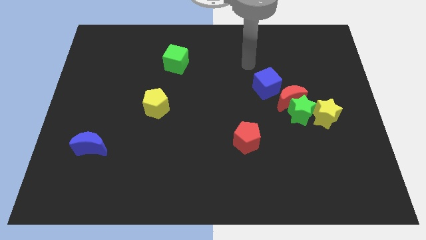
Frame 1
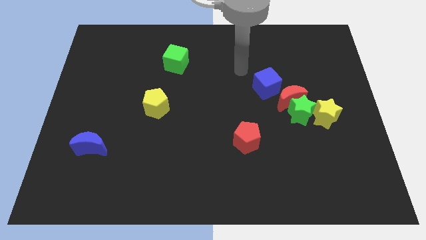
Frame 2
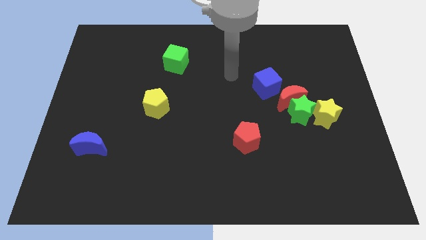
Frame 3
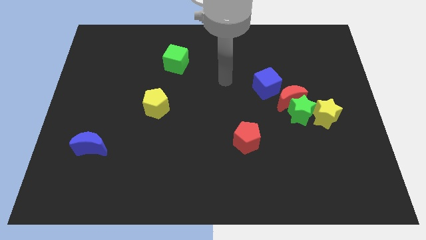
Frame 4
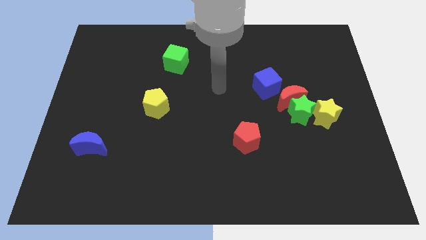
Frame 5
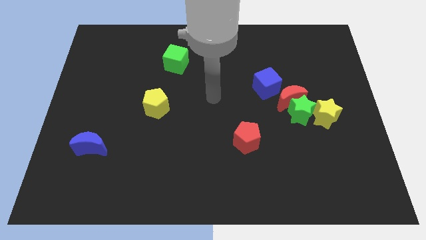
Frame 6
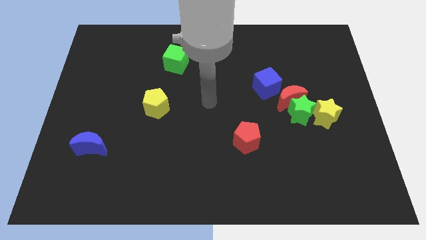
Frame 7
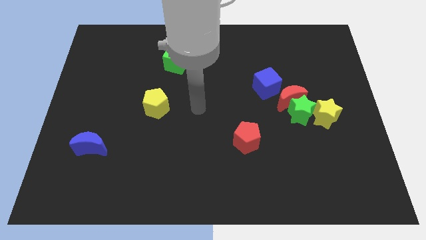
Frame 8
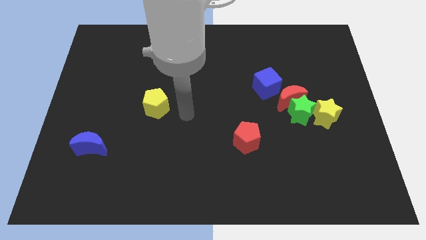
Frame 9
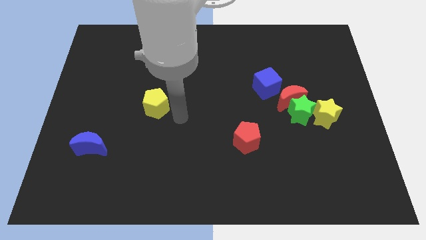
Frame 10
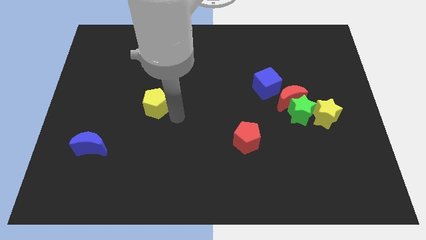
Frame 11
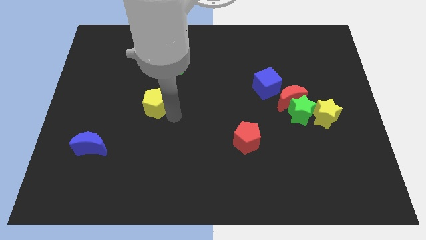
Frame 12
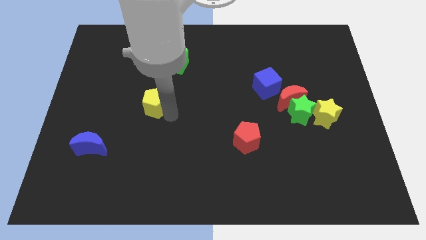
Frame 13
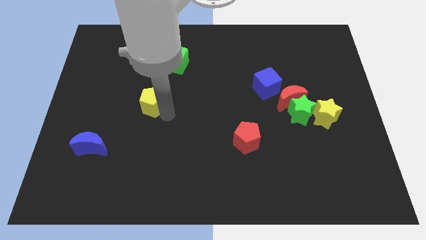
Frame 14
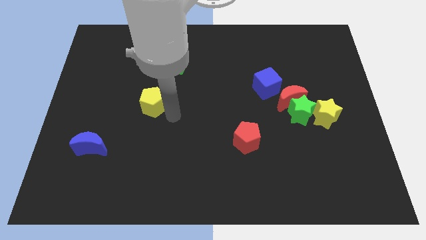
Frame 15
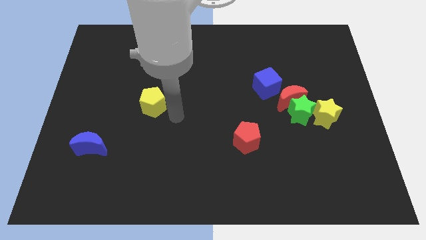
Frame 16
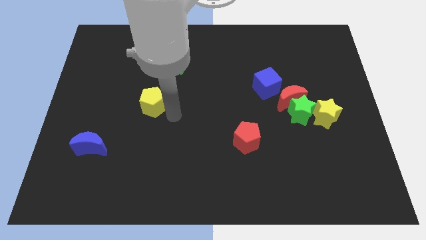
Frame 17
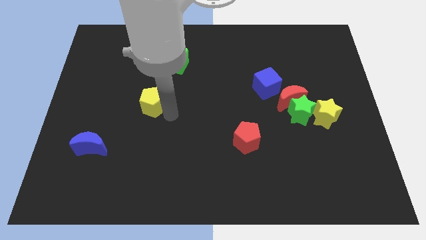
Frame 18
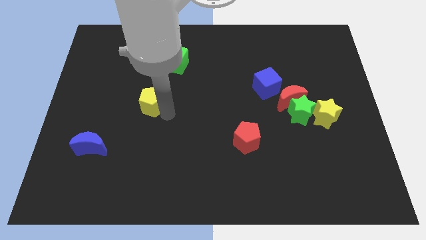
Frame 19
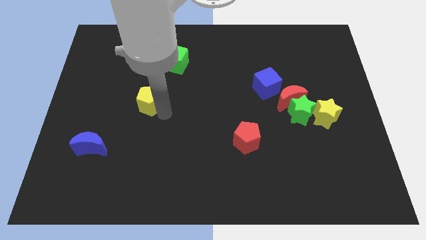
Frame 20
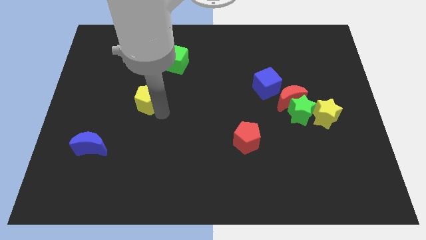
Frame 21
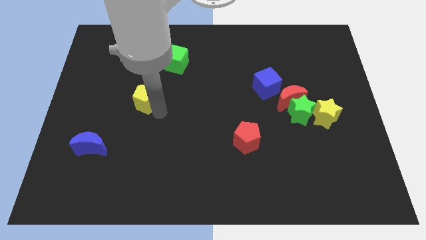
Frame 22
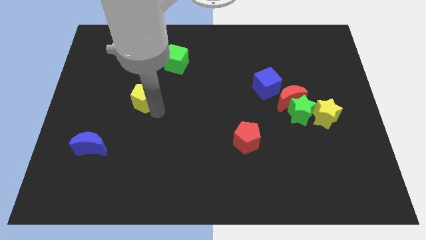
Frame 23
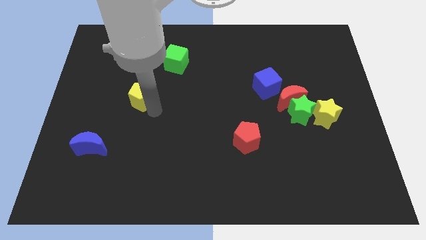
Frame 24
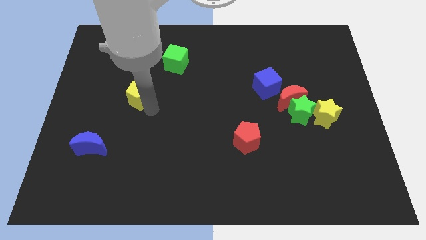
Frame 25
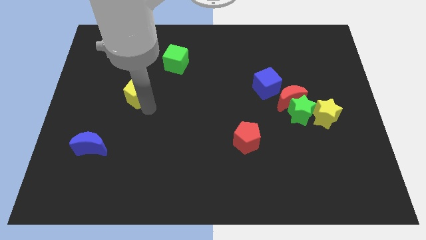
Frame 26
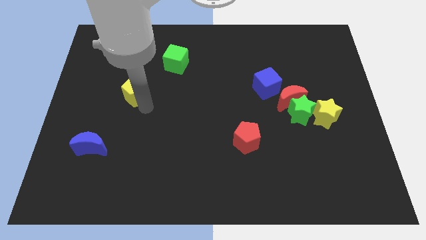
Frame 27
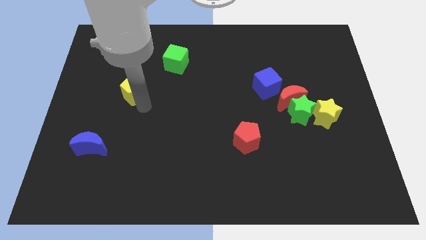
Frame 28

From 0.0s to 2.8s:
push the yellow pentagon up and then to the left a little

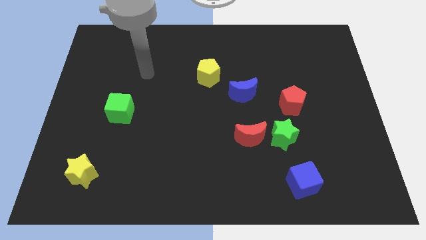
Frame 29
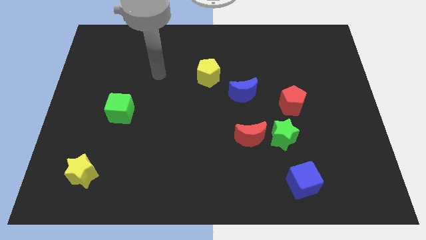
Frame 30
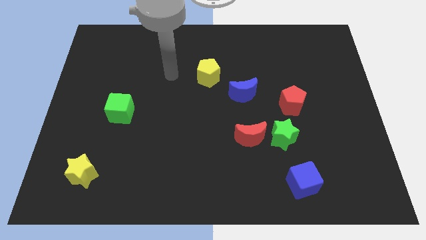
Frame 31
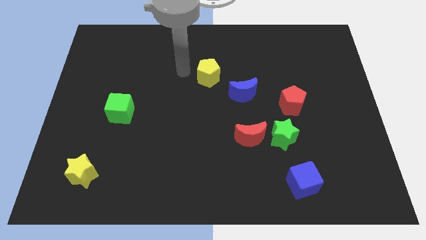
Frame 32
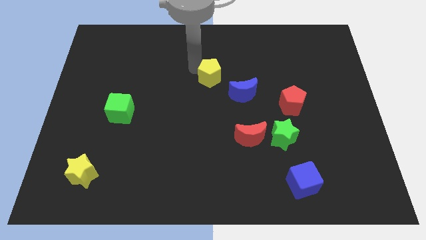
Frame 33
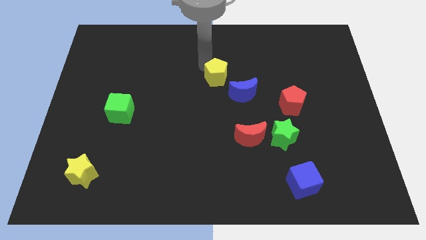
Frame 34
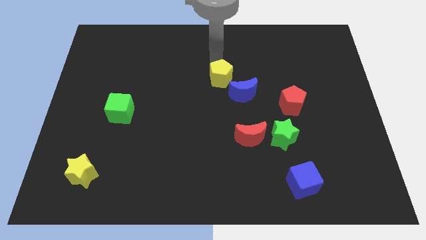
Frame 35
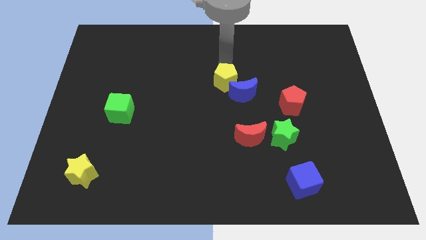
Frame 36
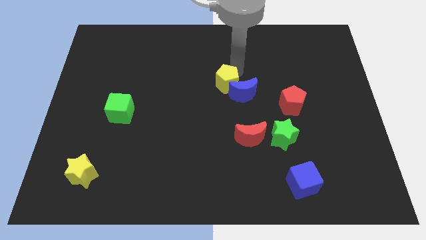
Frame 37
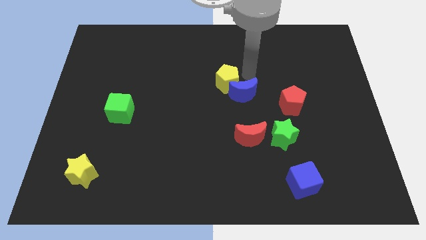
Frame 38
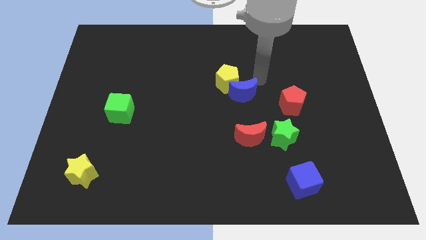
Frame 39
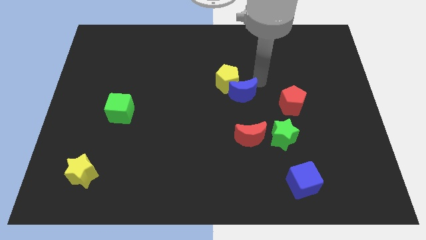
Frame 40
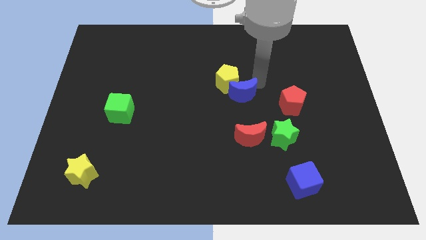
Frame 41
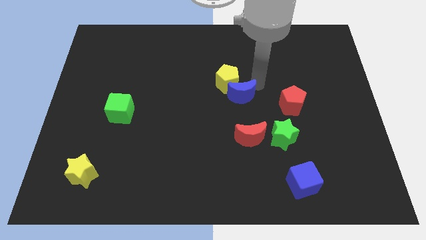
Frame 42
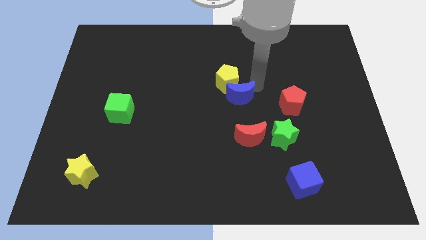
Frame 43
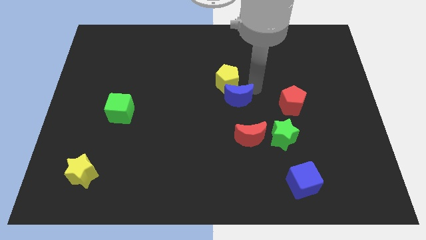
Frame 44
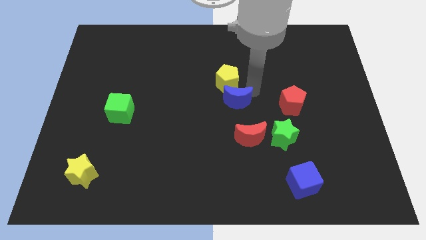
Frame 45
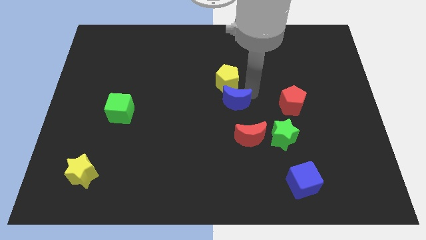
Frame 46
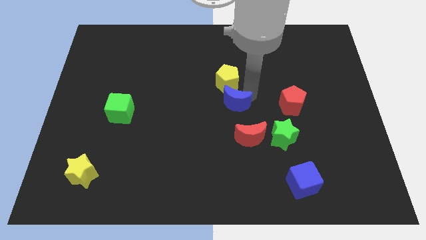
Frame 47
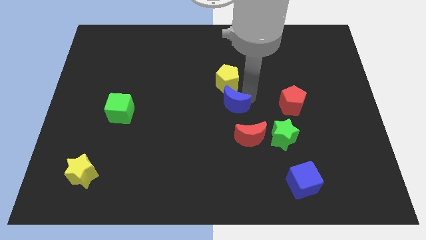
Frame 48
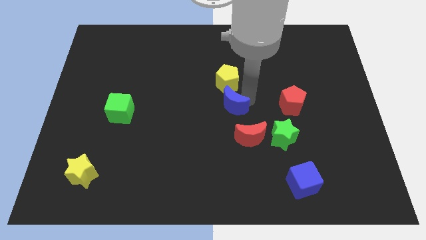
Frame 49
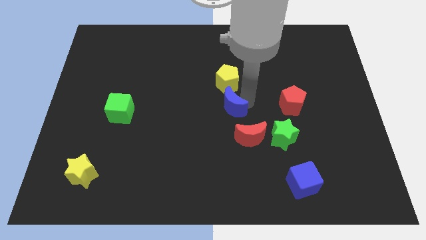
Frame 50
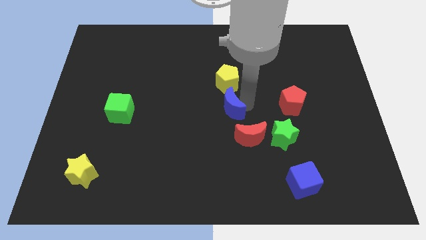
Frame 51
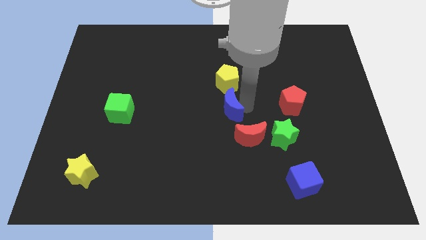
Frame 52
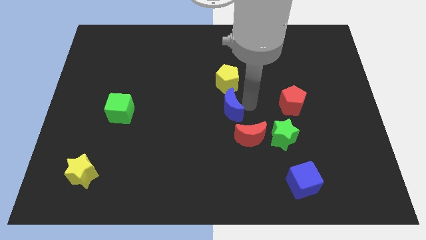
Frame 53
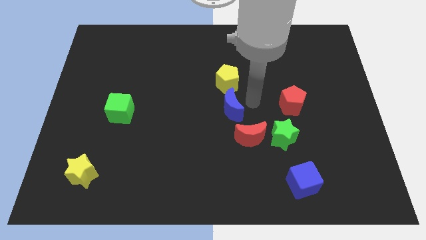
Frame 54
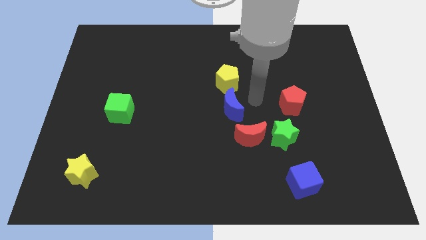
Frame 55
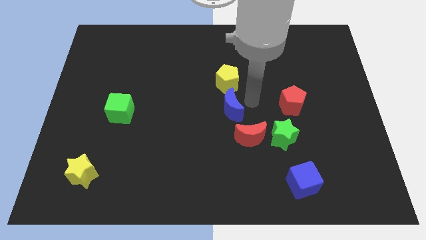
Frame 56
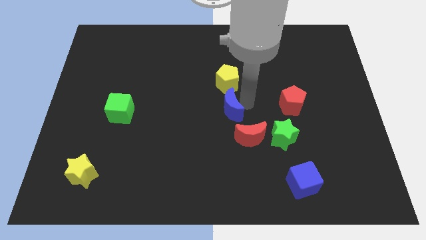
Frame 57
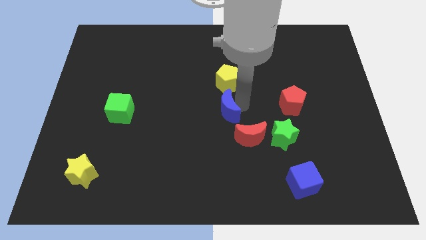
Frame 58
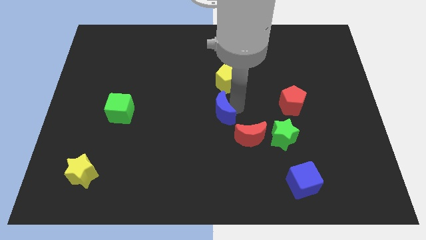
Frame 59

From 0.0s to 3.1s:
slide the blue moon down and left diagonally slightly

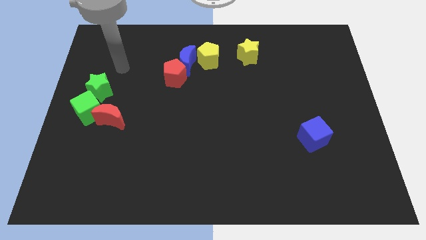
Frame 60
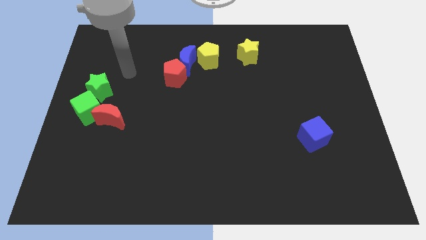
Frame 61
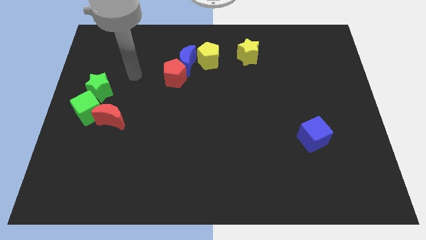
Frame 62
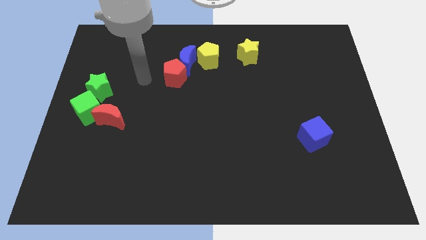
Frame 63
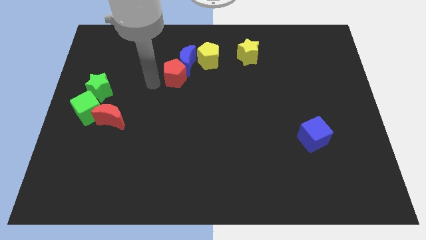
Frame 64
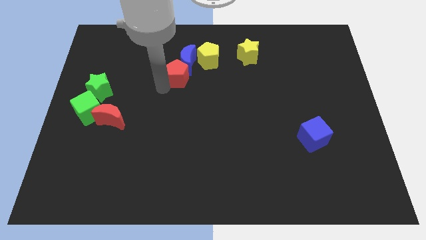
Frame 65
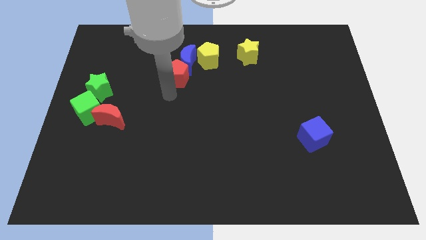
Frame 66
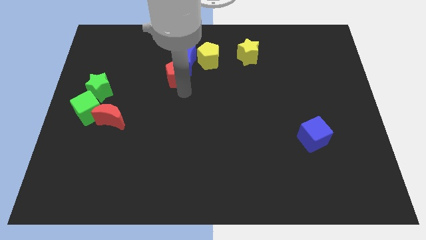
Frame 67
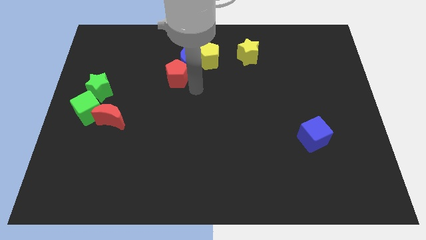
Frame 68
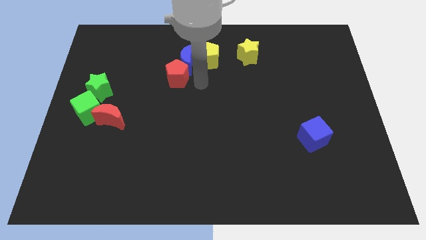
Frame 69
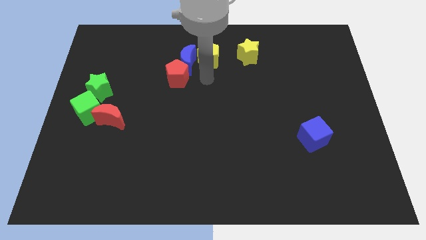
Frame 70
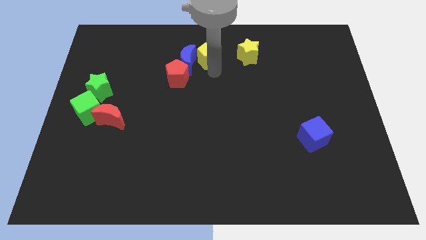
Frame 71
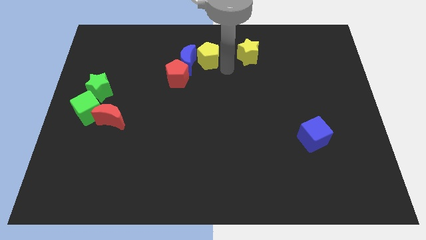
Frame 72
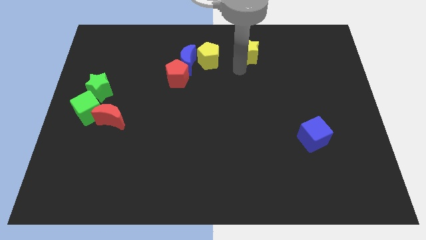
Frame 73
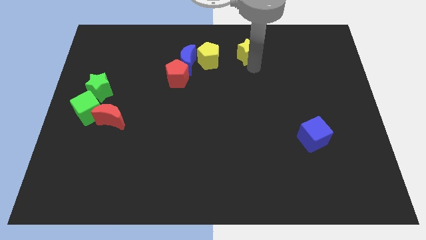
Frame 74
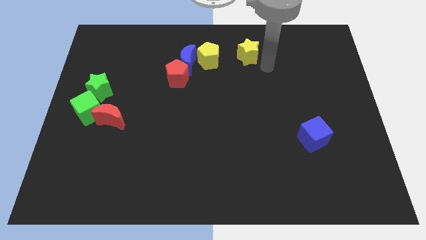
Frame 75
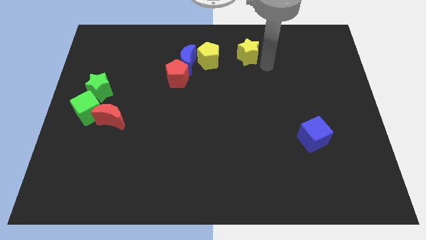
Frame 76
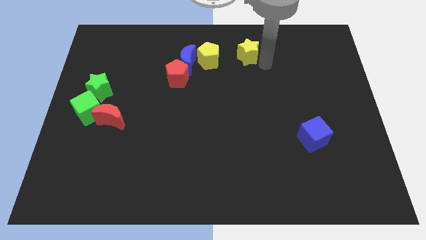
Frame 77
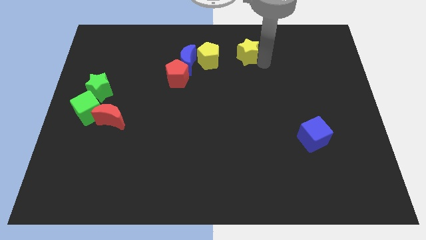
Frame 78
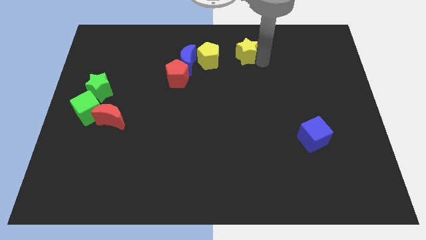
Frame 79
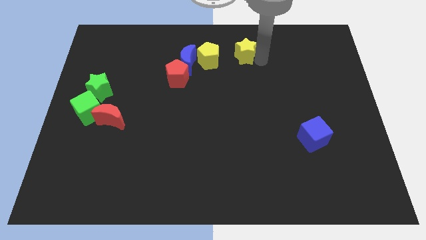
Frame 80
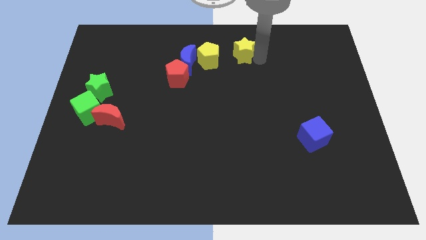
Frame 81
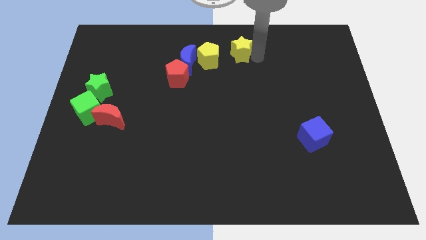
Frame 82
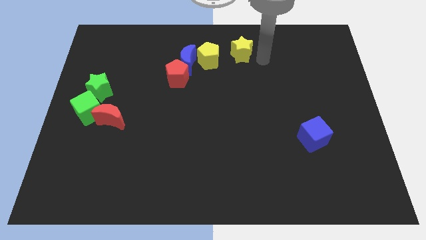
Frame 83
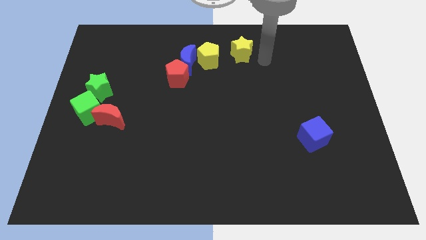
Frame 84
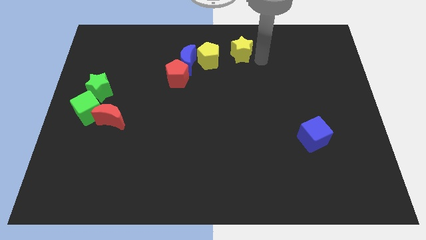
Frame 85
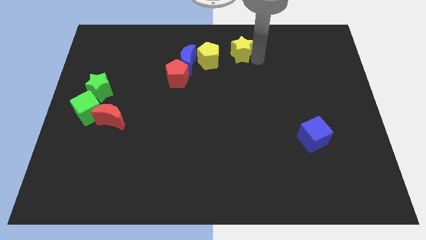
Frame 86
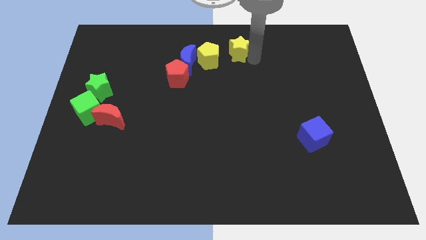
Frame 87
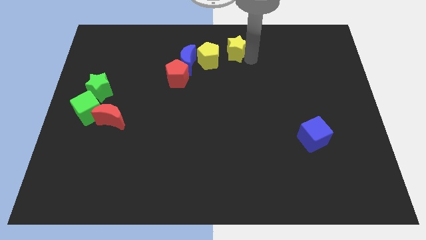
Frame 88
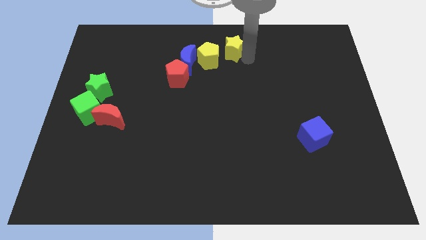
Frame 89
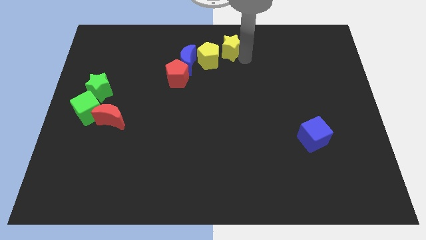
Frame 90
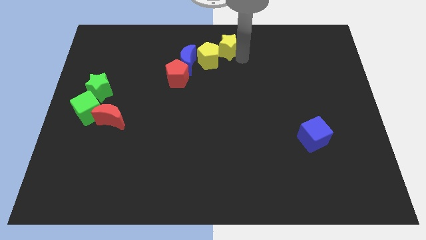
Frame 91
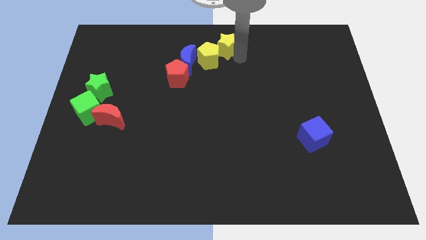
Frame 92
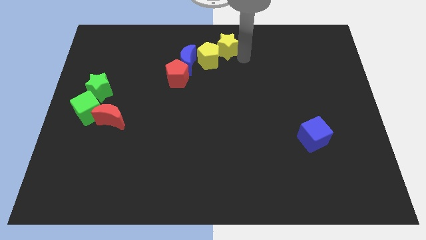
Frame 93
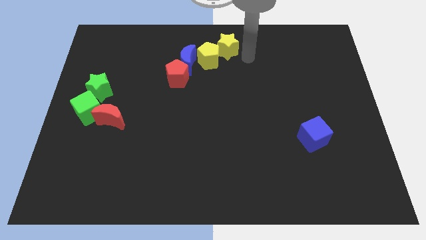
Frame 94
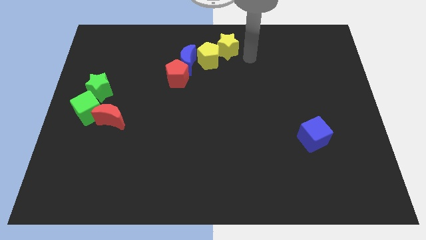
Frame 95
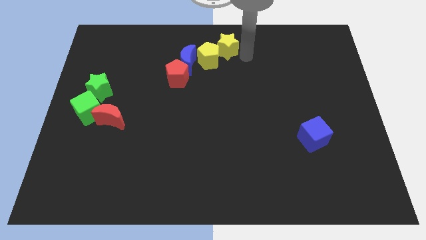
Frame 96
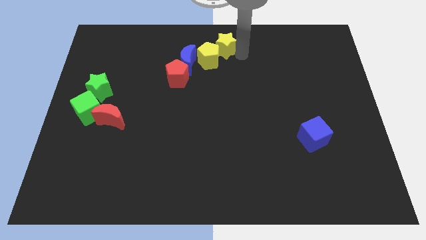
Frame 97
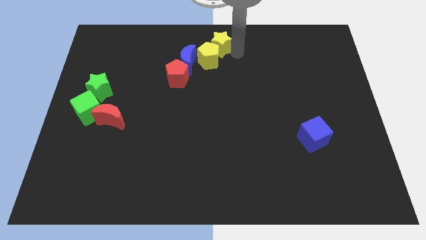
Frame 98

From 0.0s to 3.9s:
slide the yellow star slightly left
